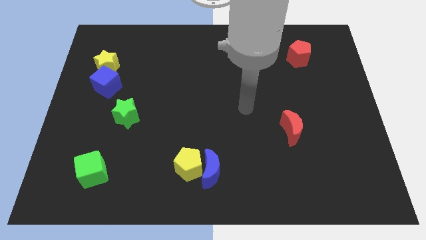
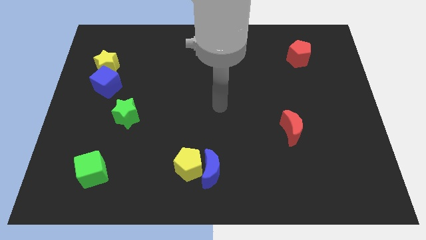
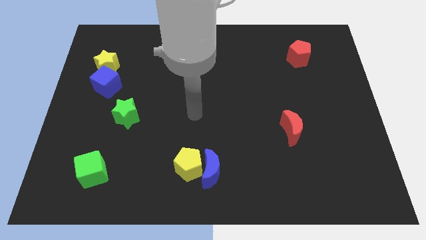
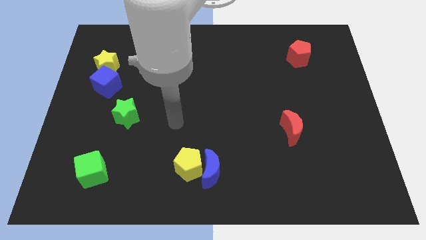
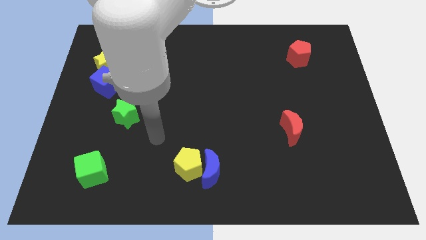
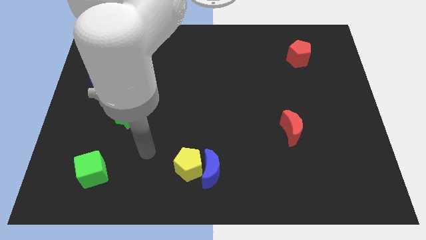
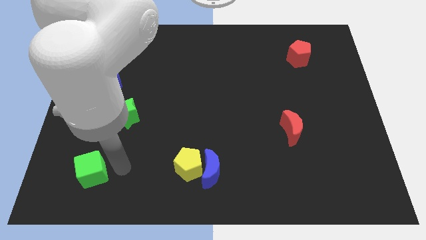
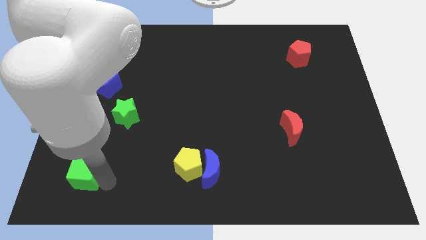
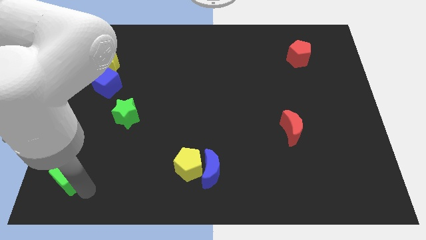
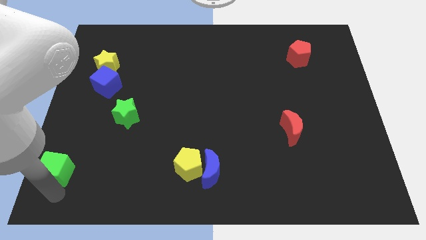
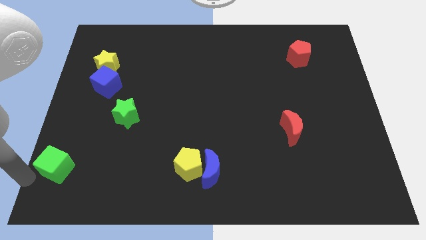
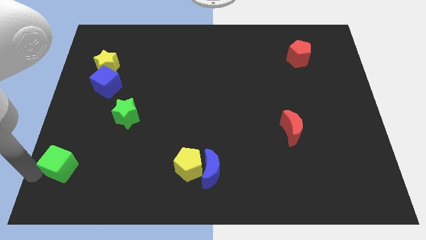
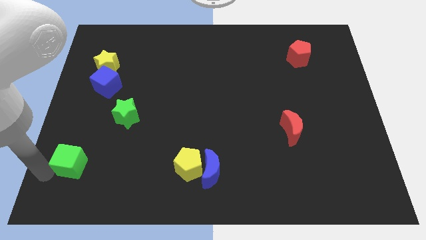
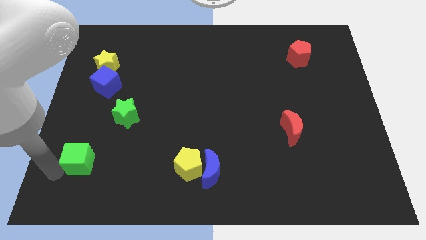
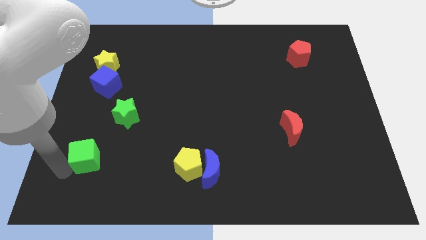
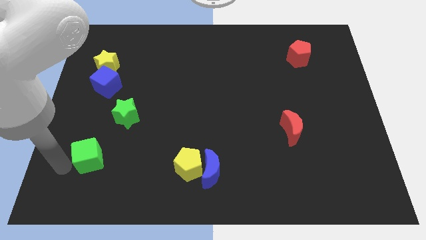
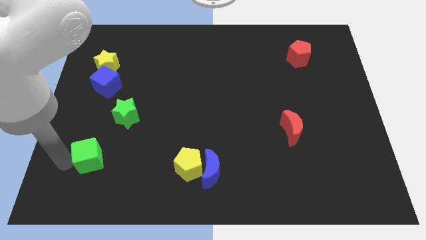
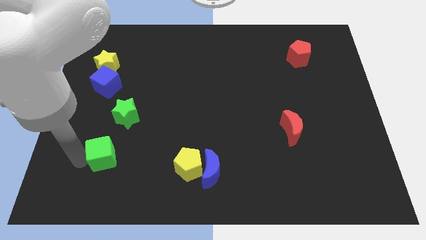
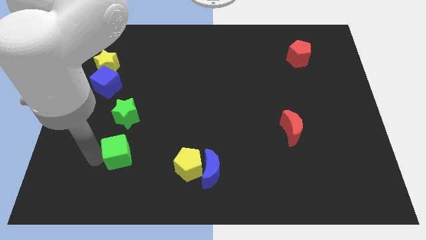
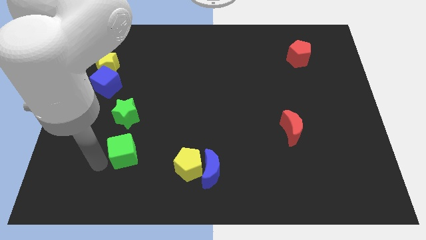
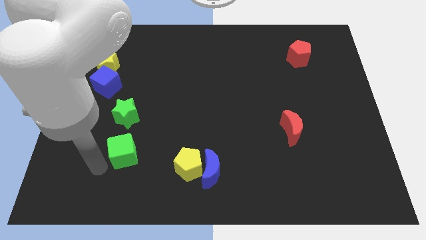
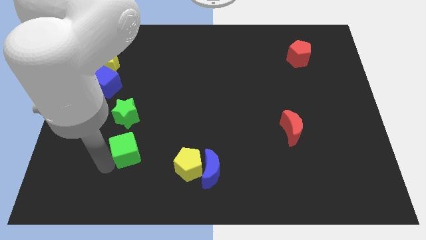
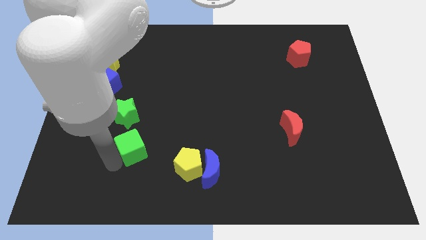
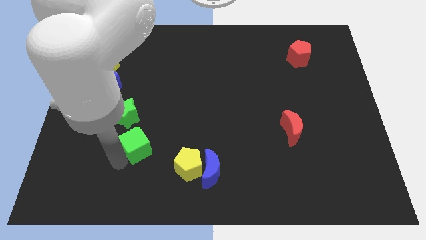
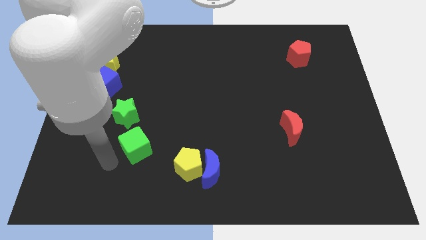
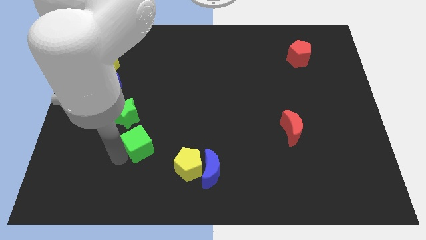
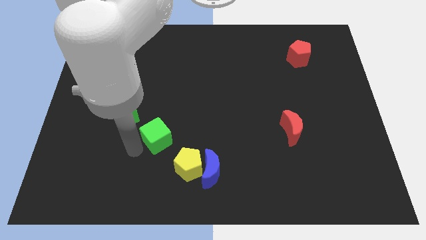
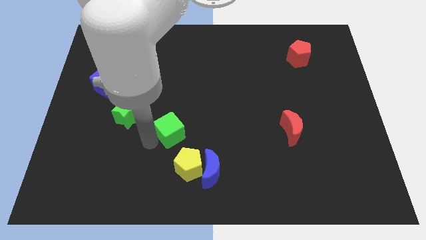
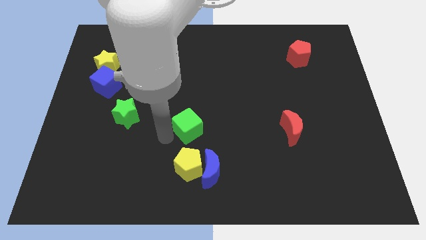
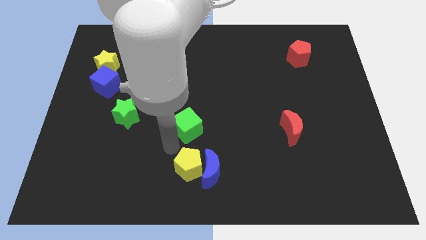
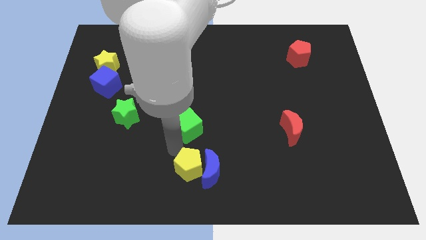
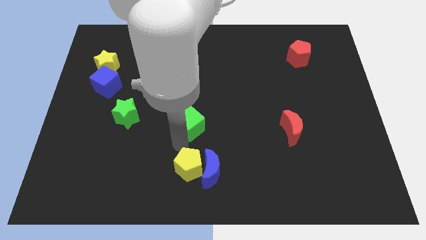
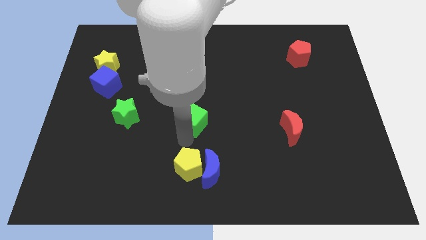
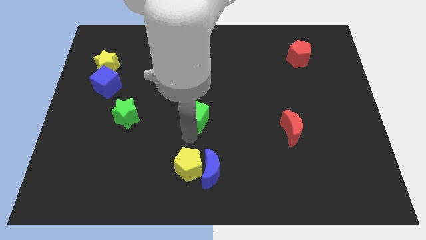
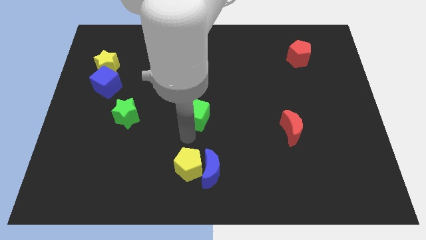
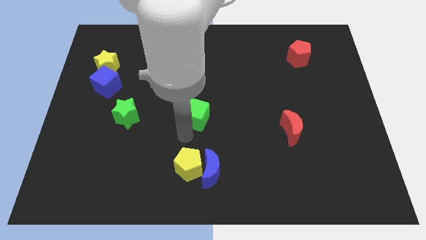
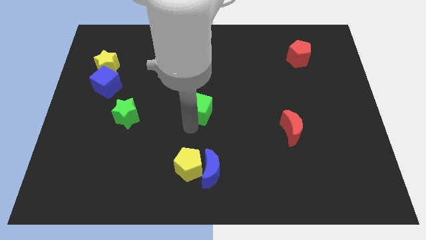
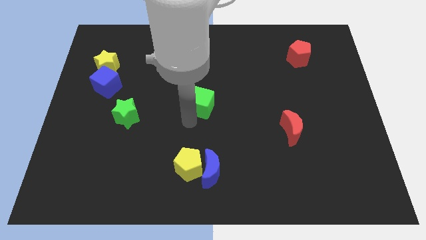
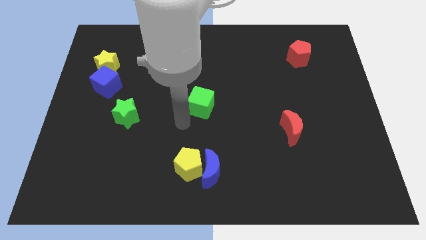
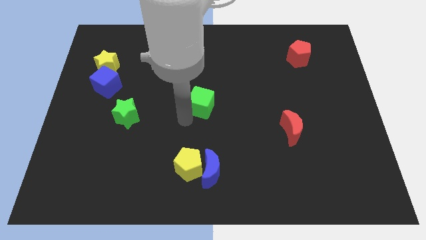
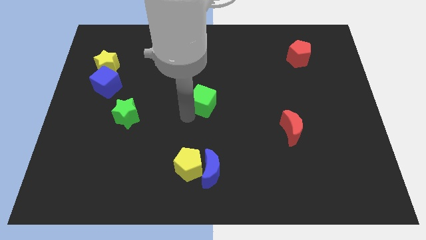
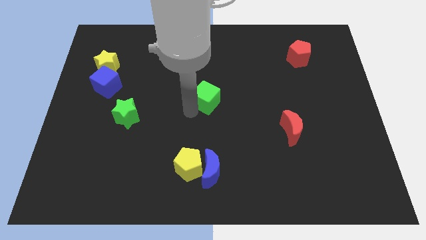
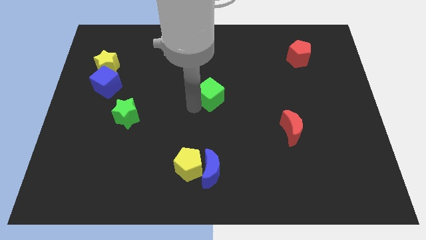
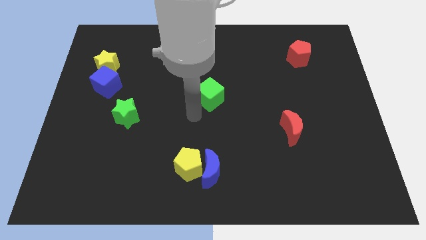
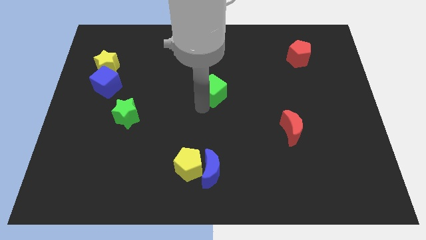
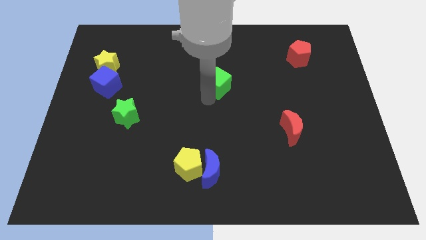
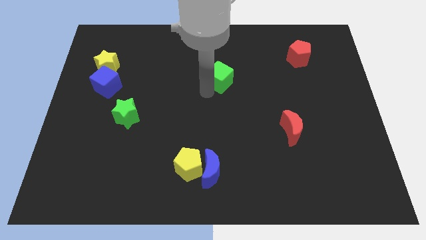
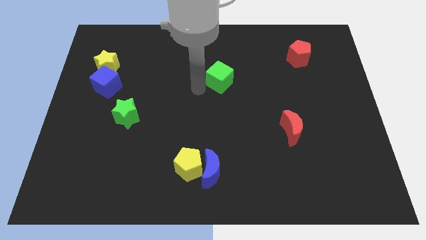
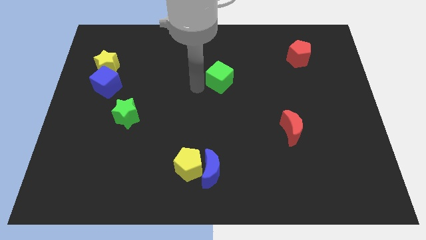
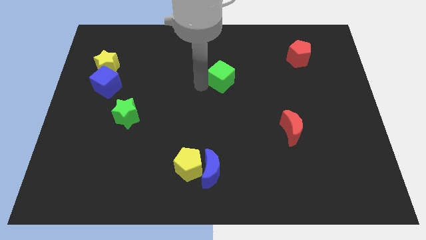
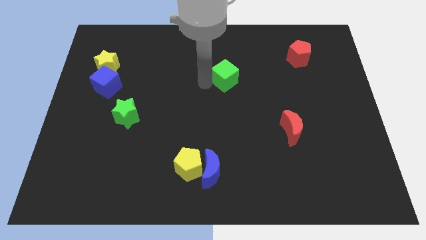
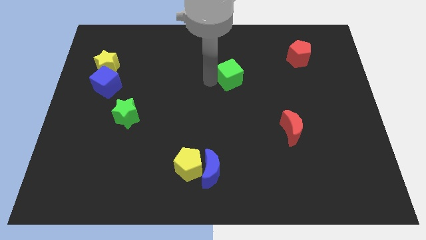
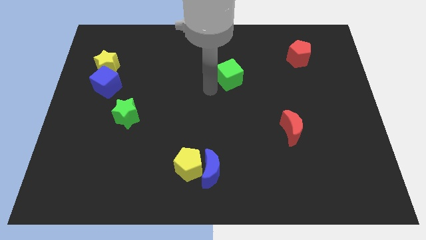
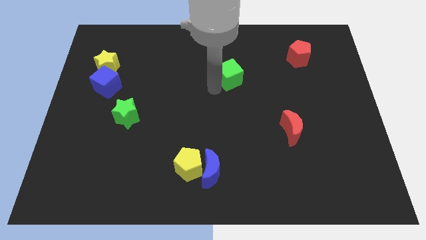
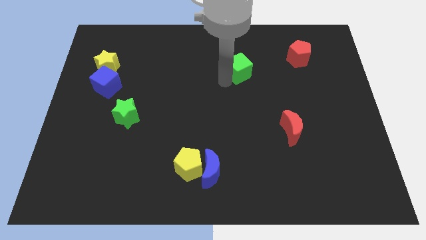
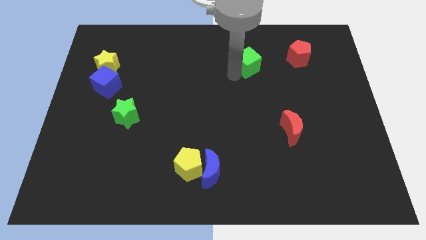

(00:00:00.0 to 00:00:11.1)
put the green cube to the left side of the red pentagon

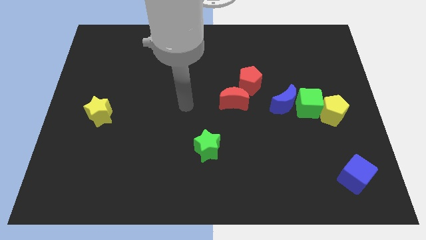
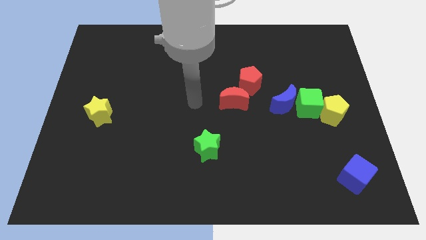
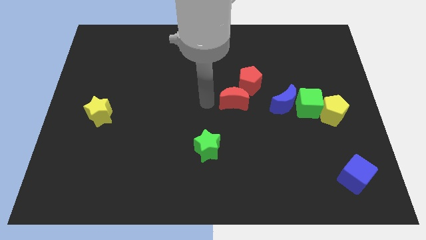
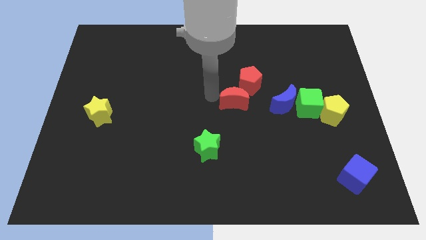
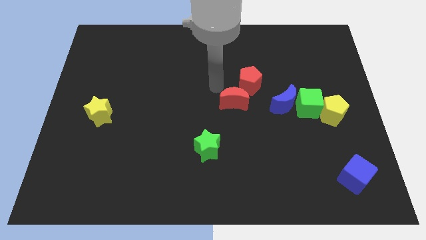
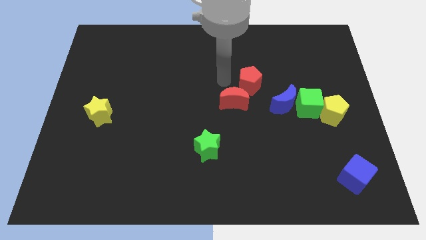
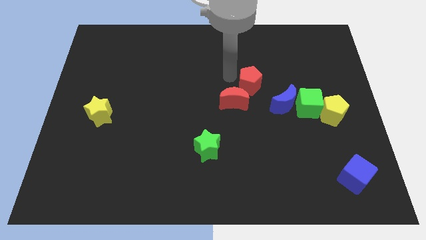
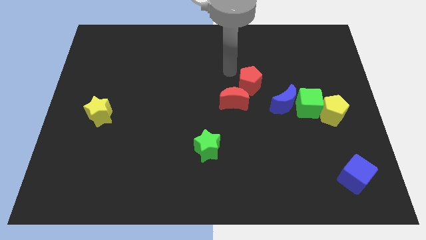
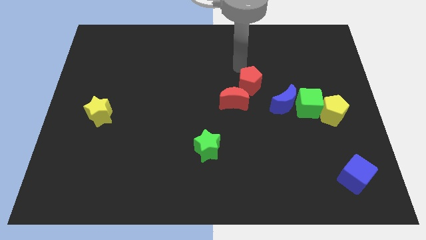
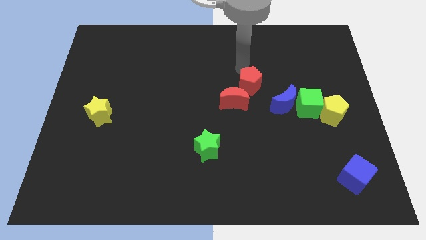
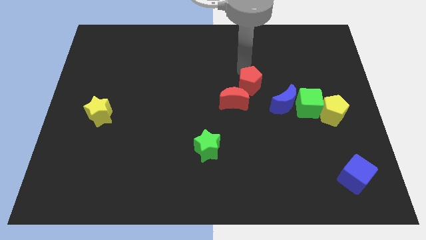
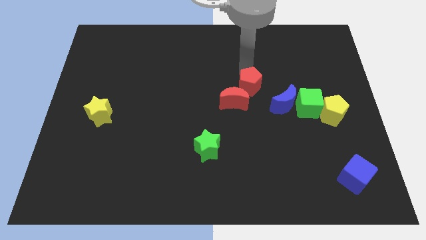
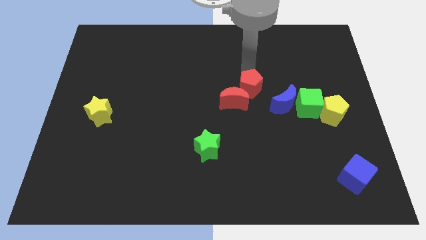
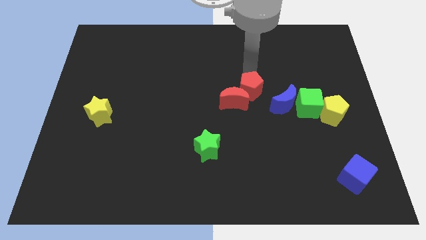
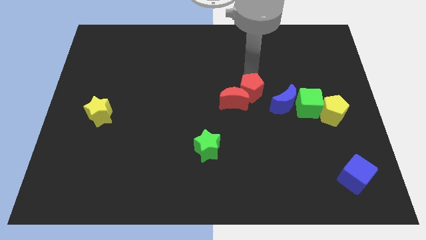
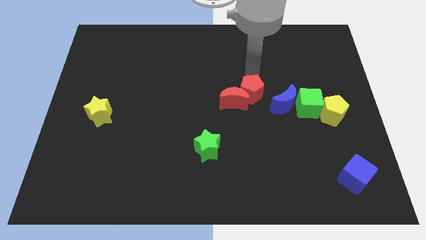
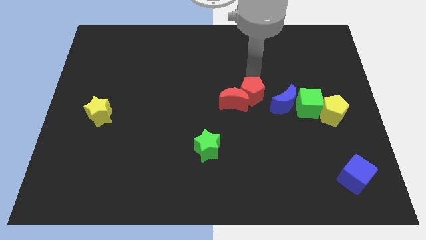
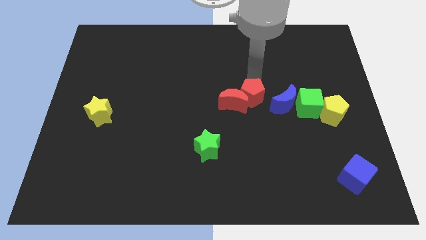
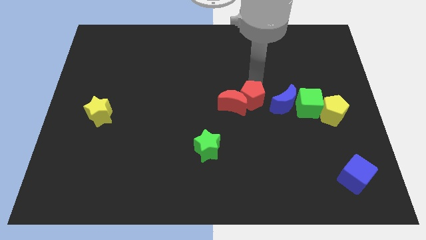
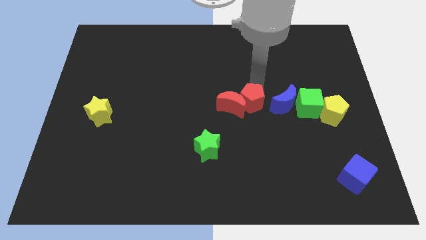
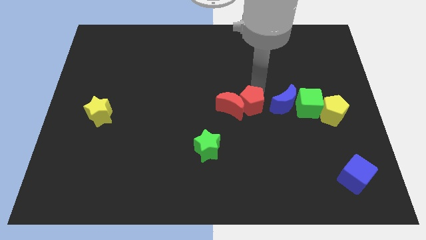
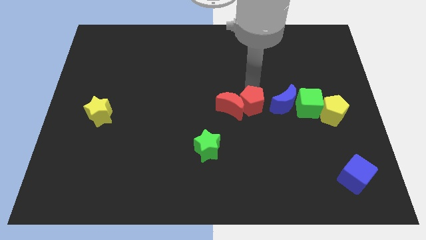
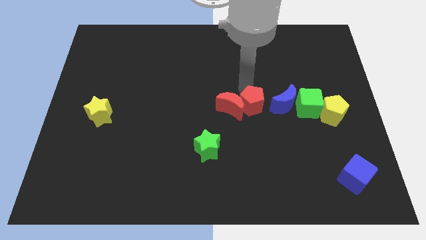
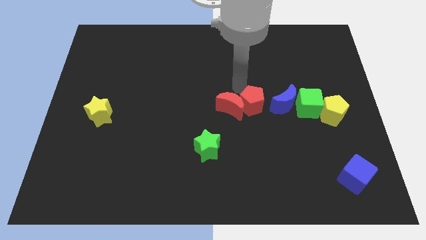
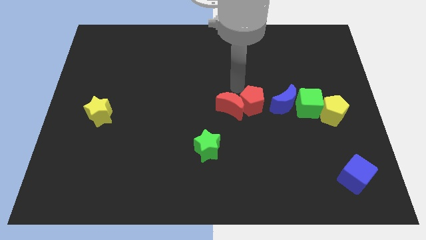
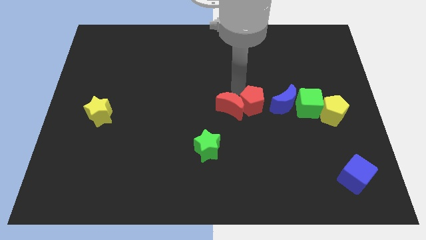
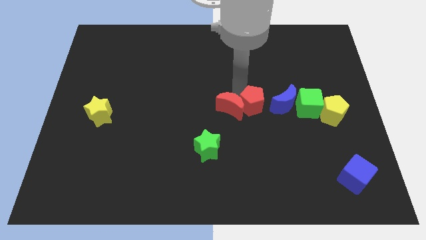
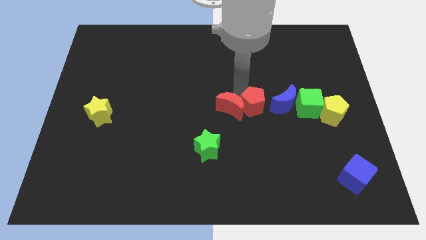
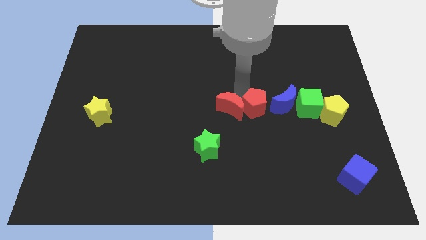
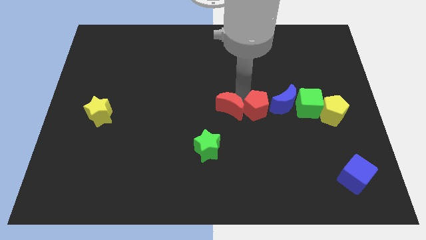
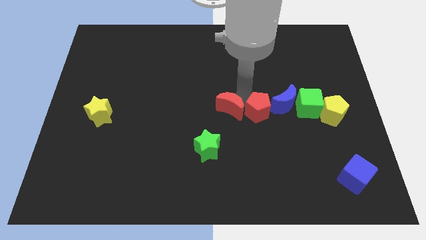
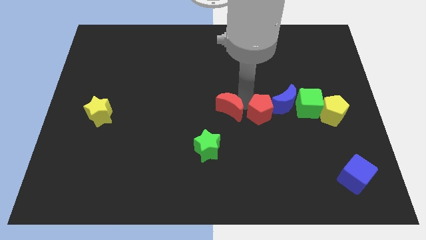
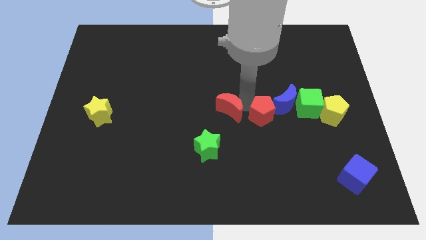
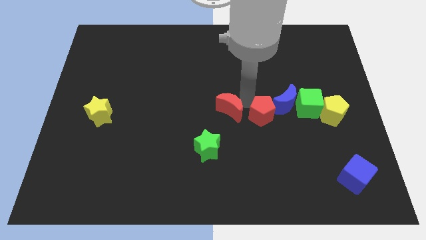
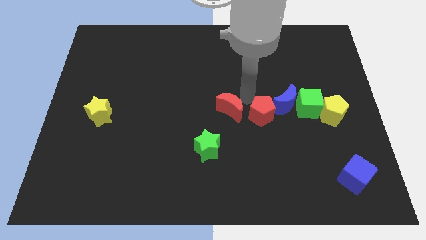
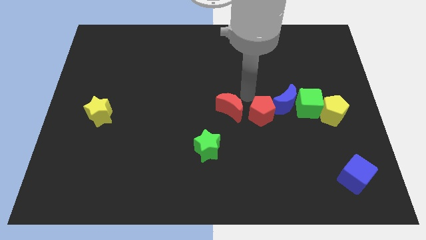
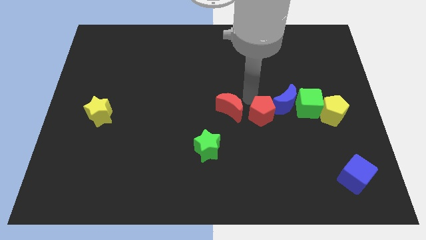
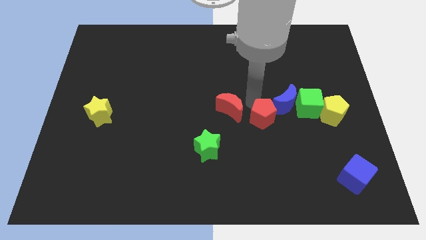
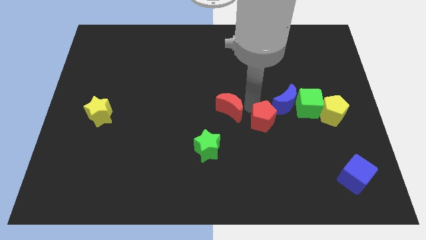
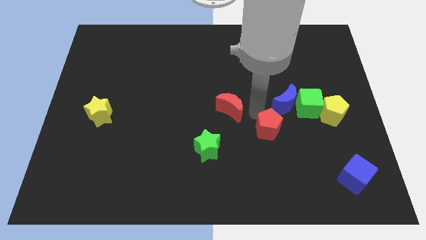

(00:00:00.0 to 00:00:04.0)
move the red pentagon below the blue moon
